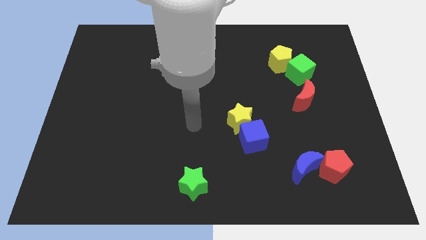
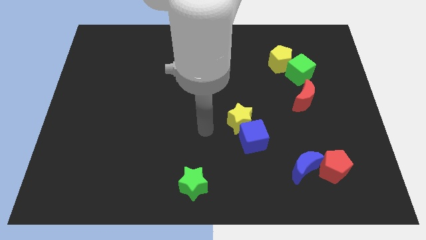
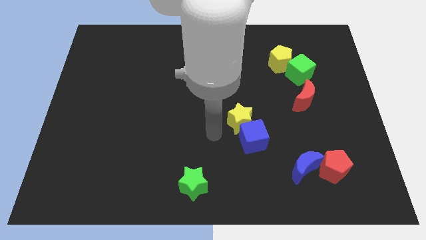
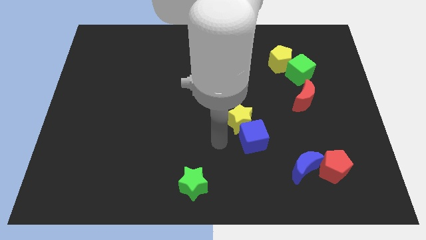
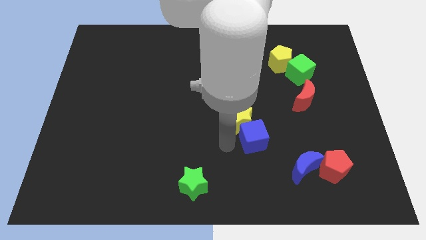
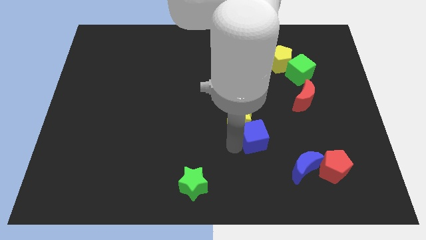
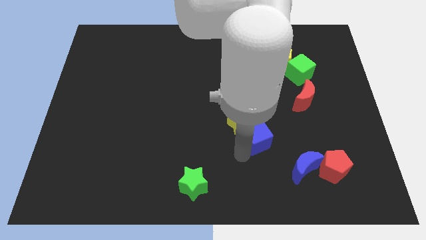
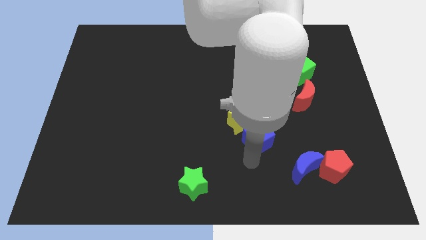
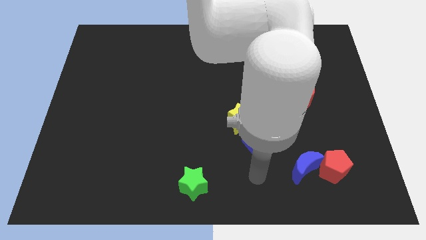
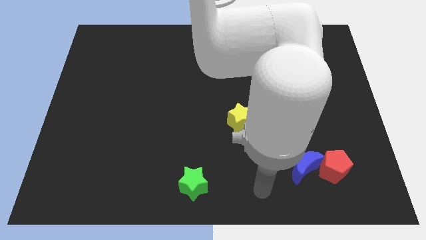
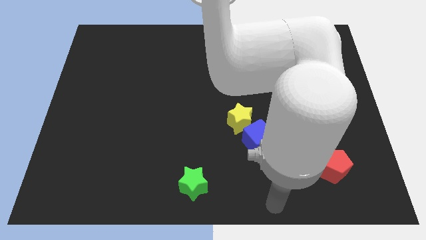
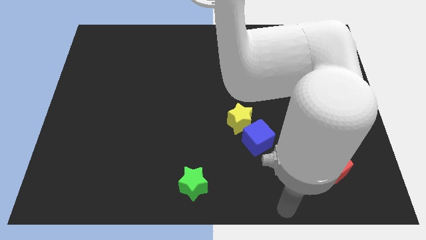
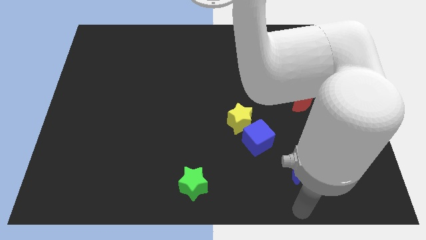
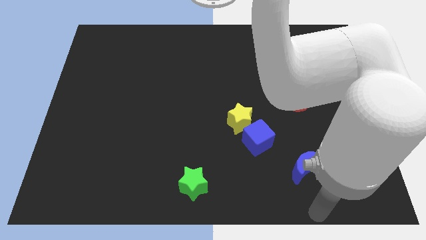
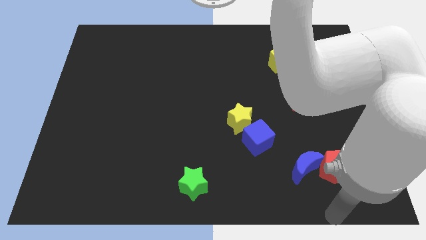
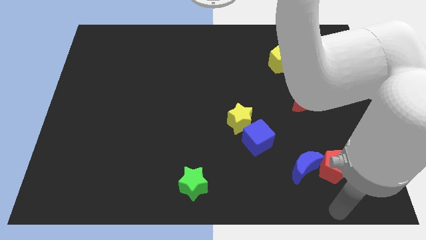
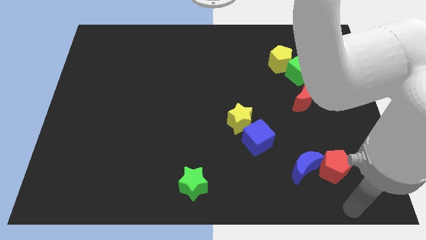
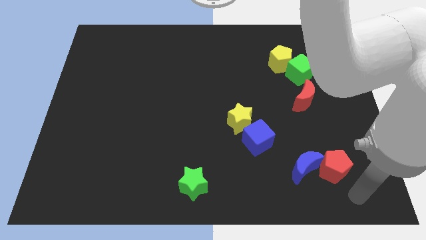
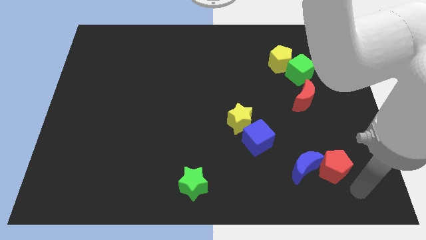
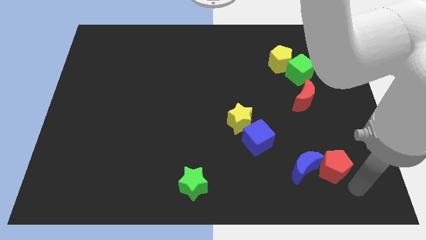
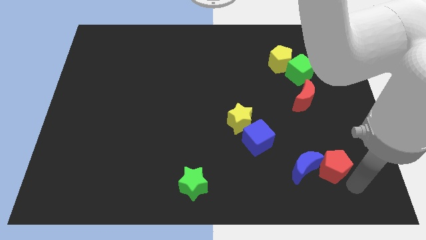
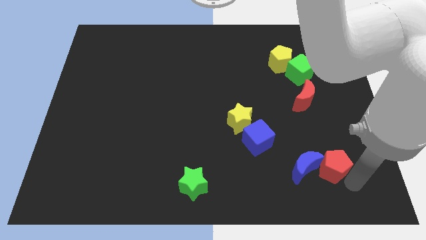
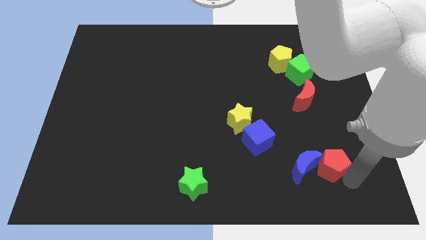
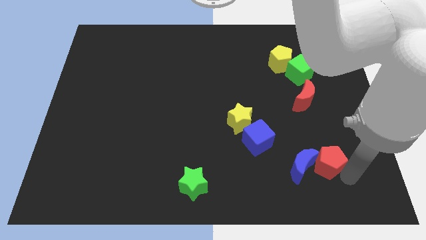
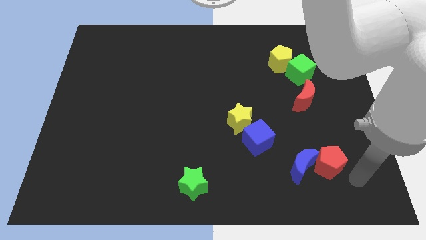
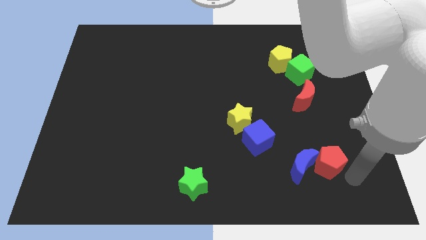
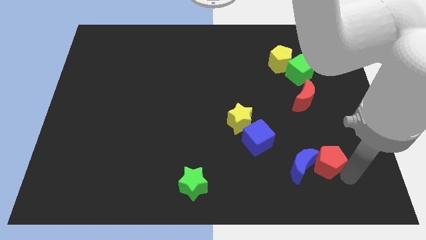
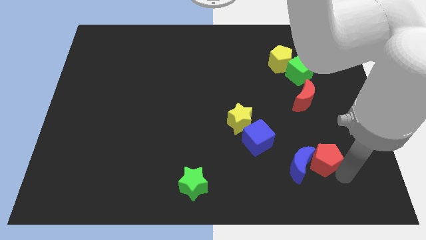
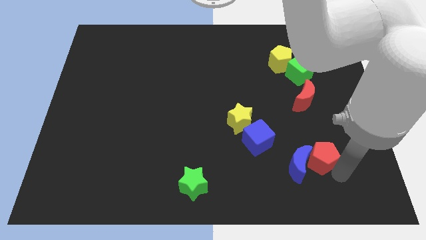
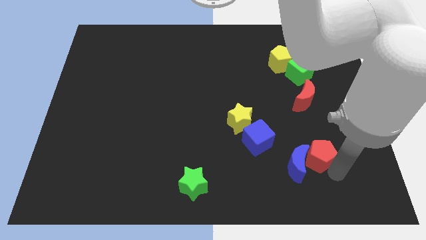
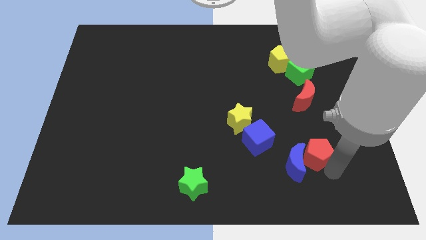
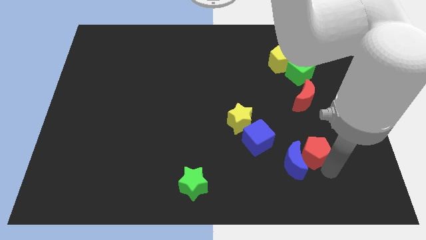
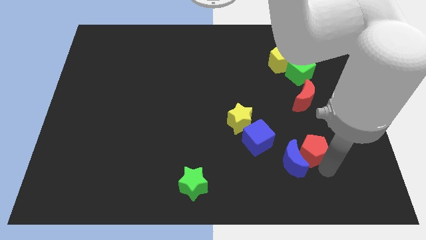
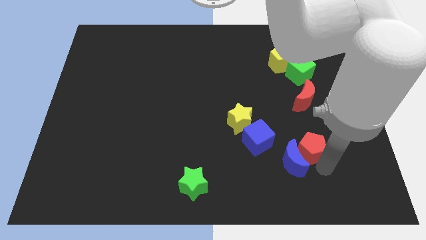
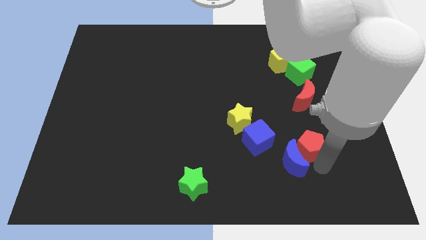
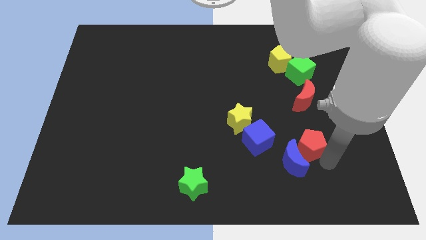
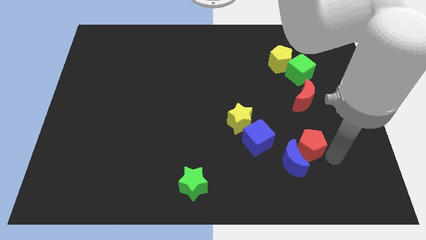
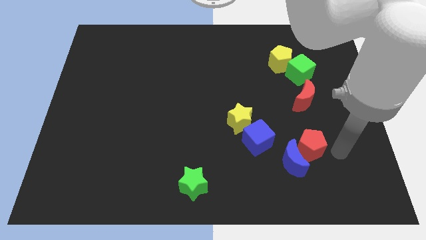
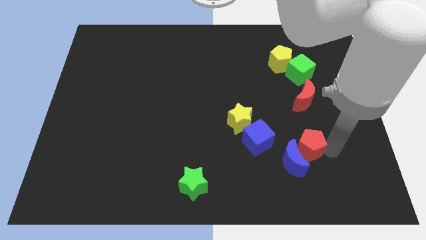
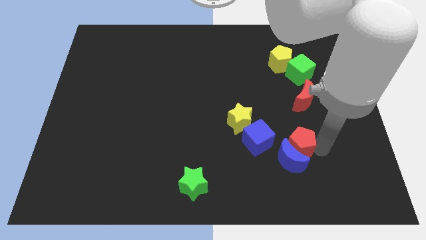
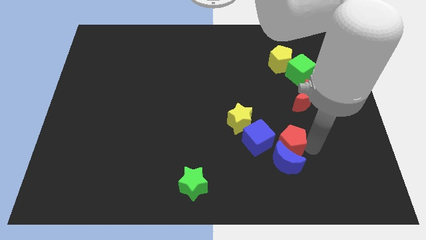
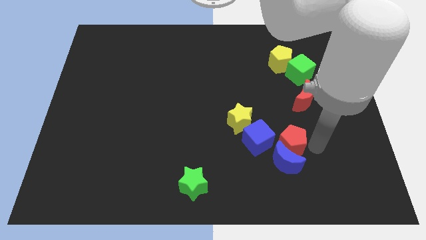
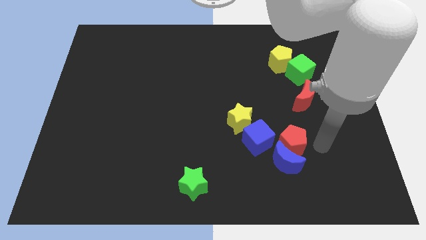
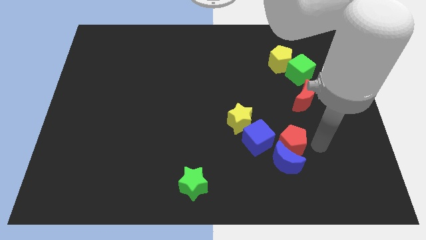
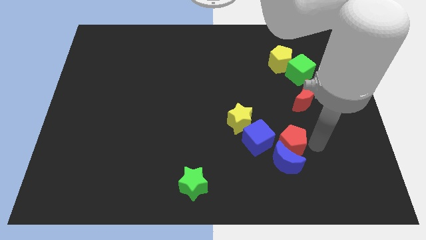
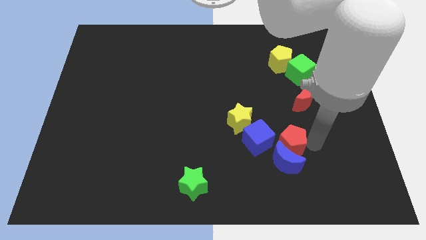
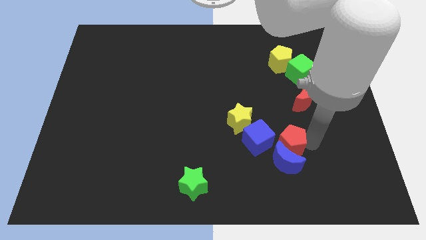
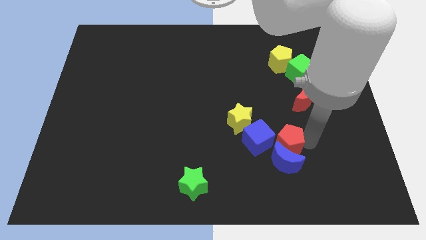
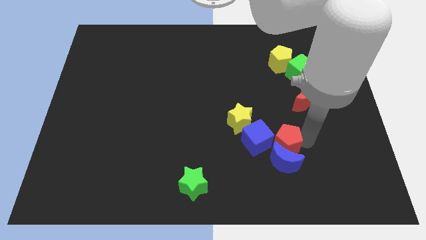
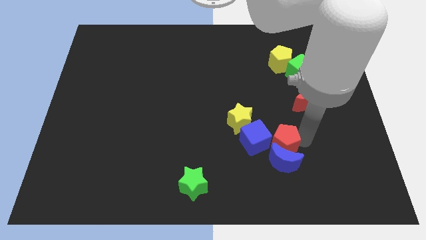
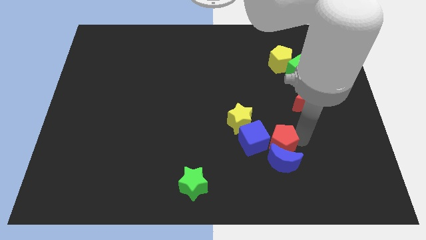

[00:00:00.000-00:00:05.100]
slide the red pentagon to the blue cube

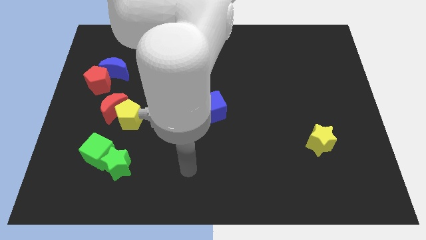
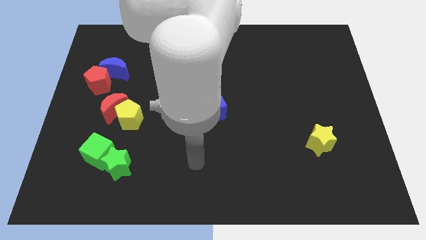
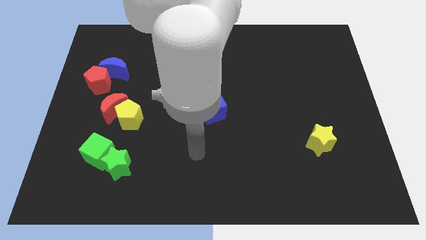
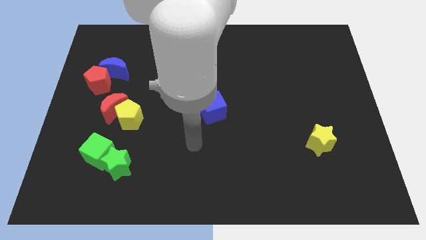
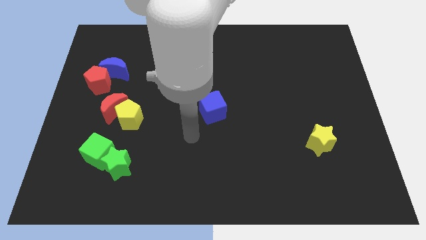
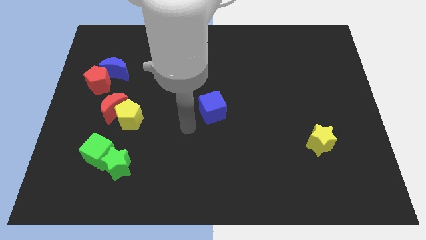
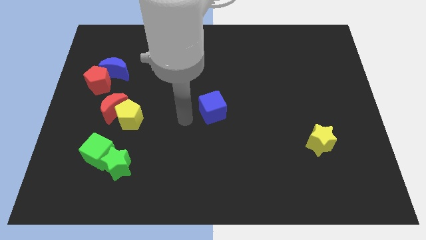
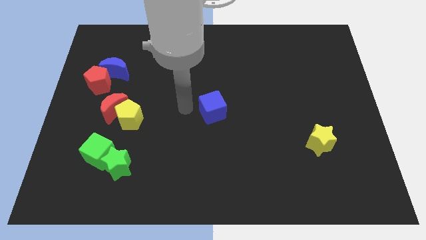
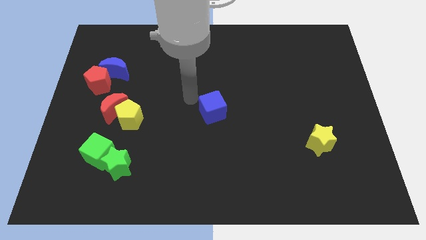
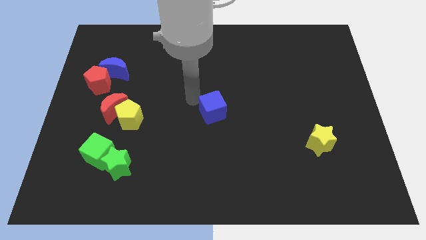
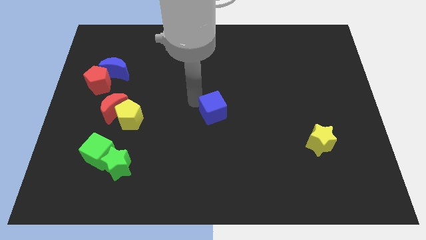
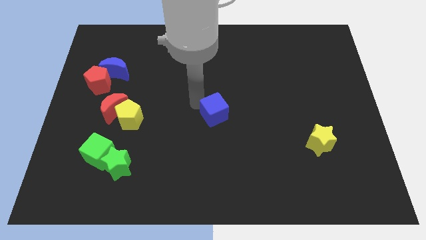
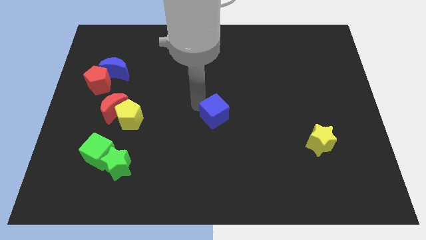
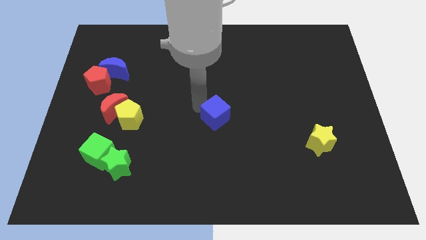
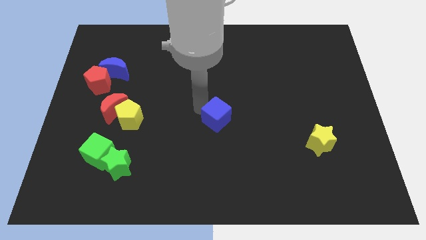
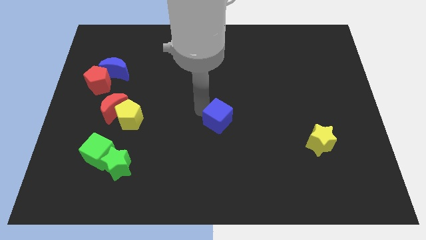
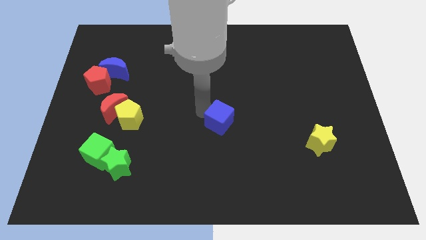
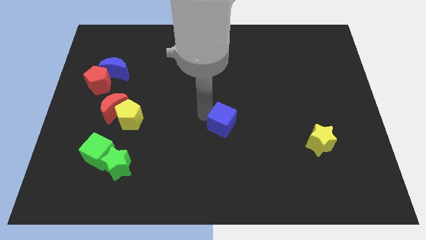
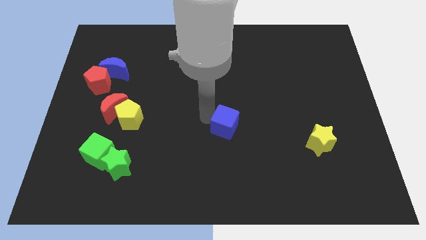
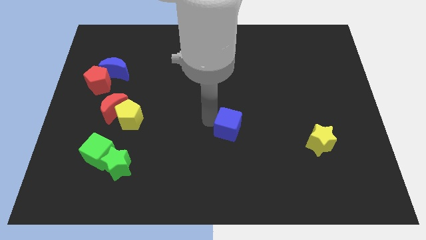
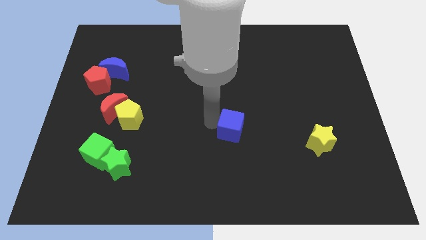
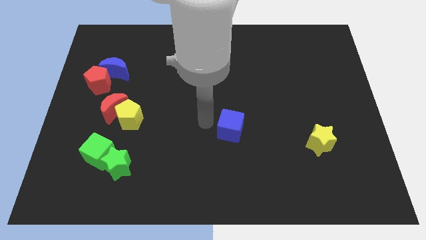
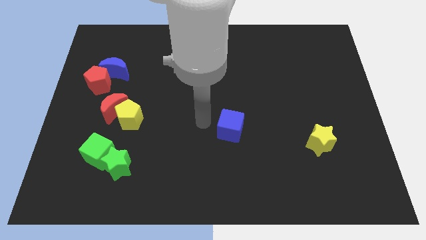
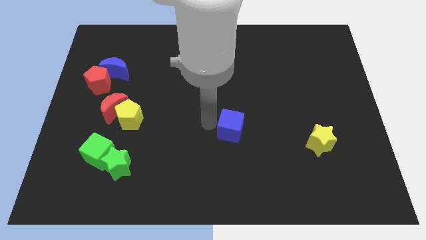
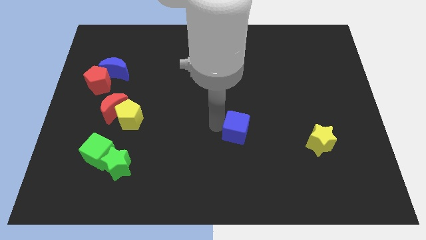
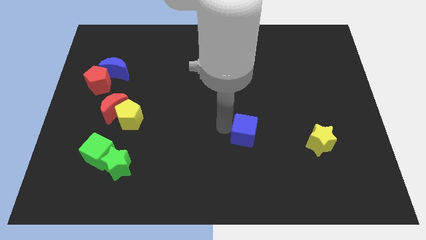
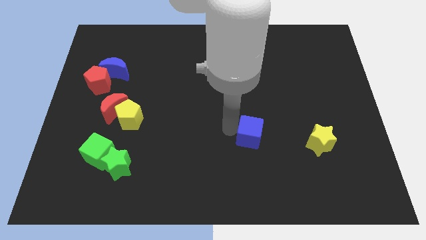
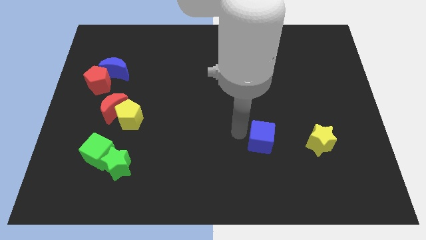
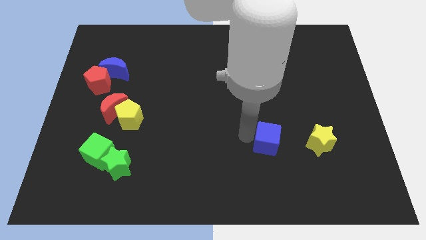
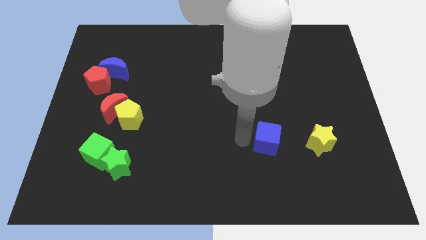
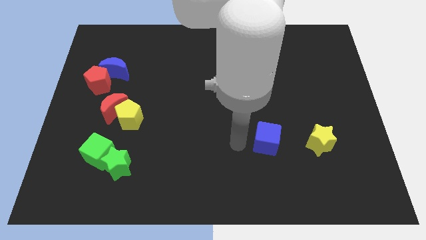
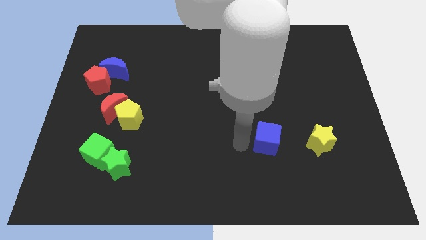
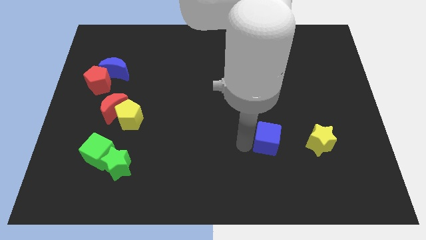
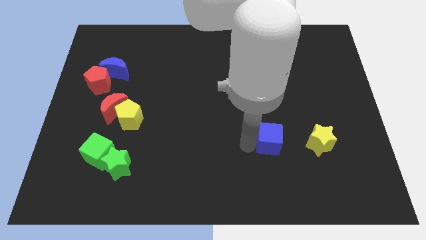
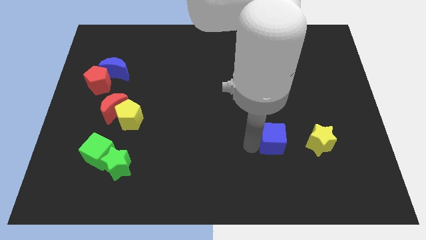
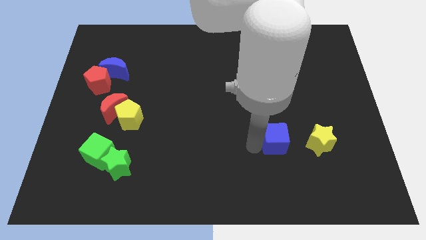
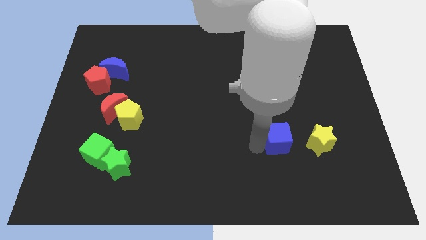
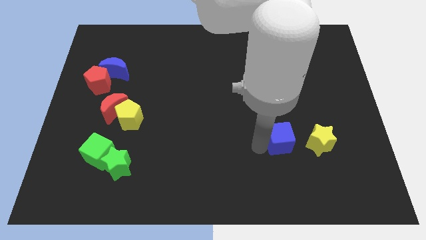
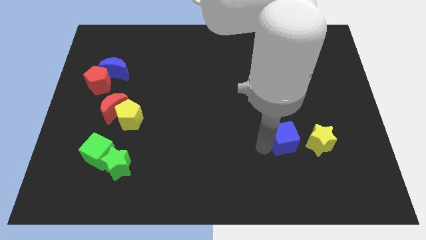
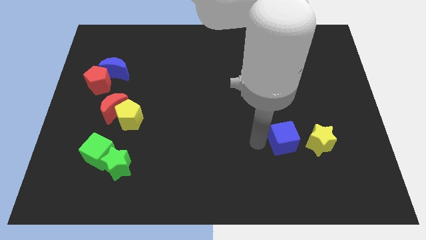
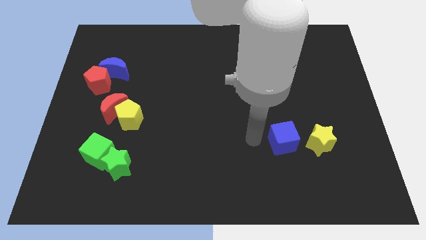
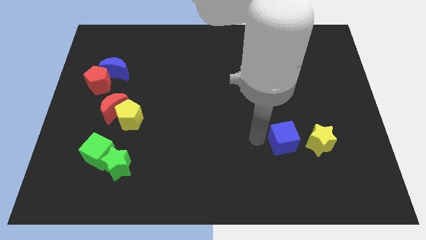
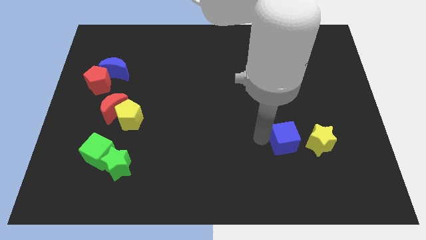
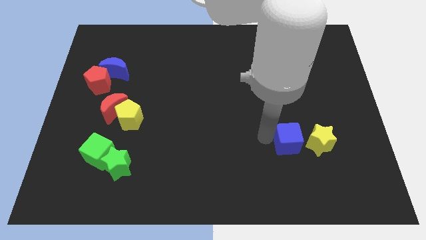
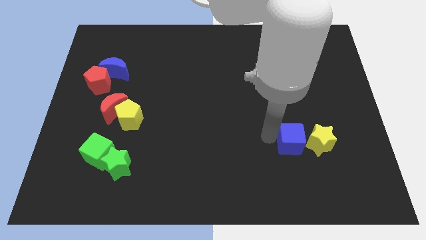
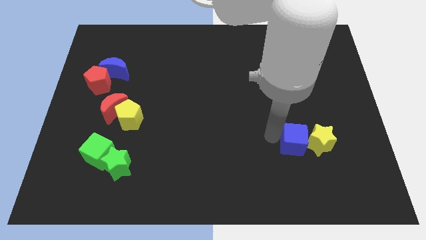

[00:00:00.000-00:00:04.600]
push the blue cube towards the yellow star
